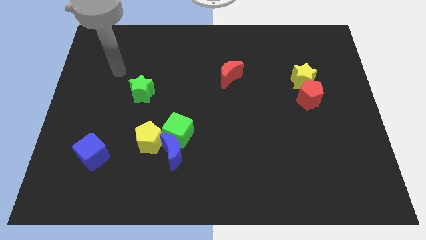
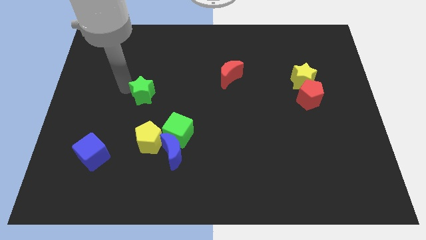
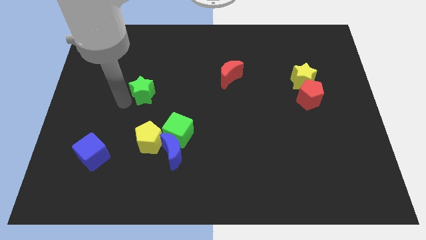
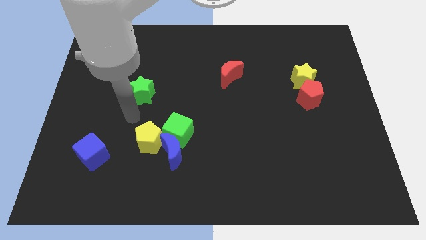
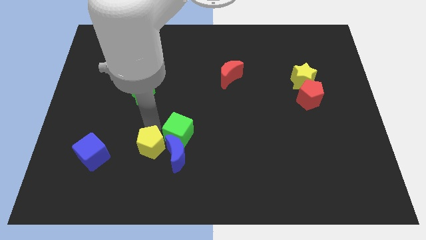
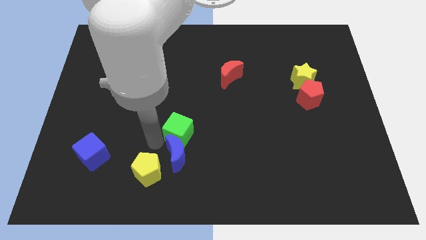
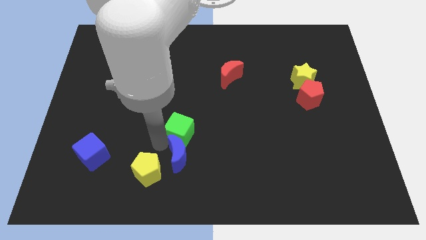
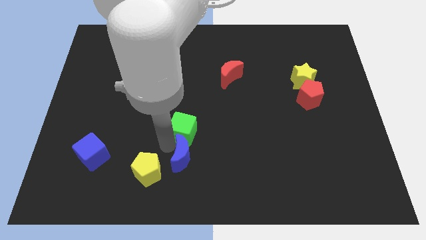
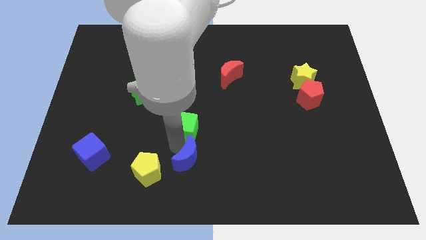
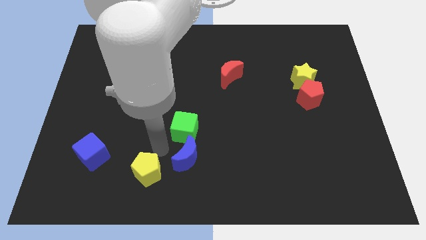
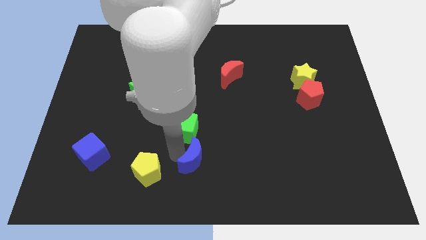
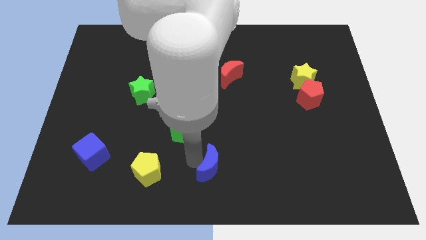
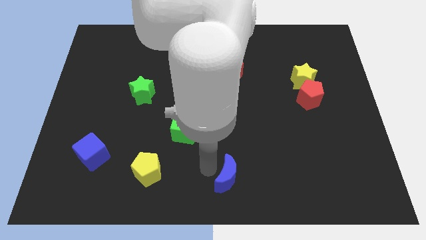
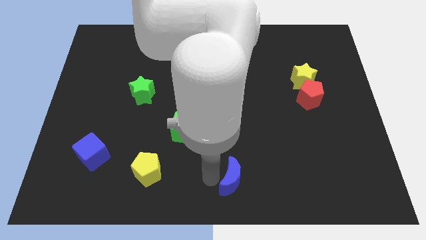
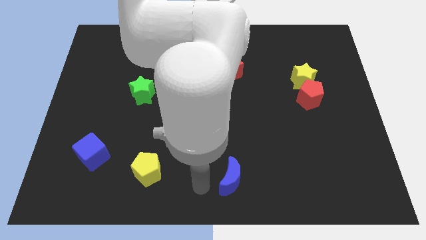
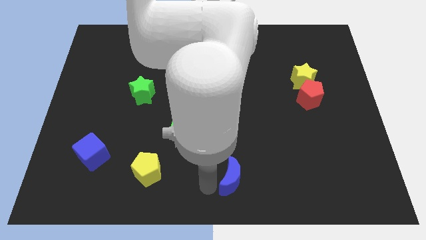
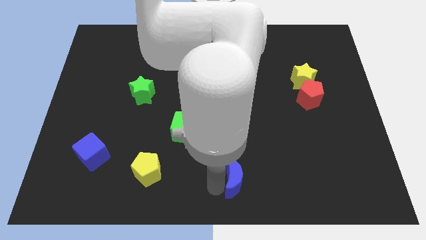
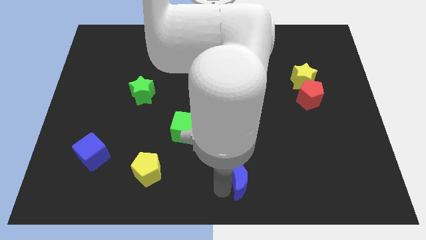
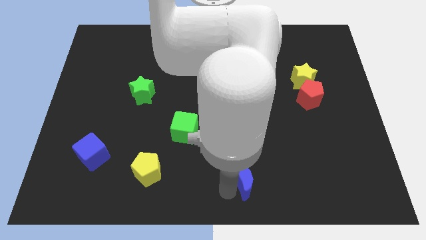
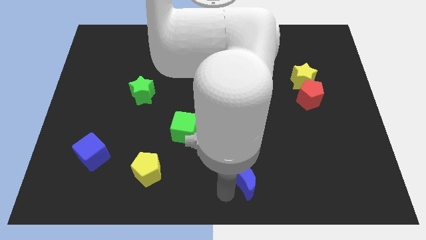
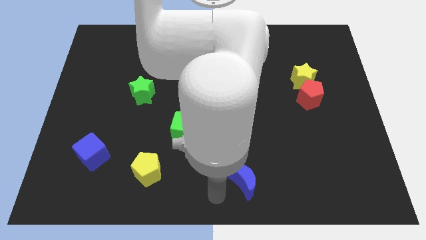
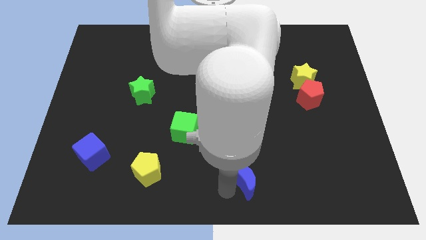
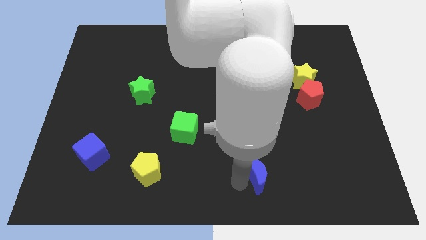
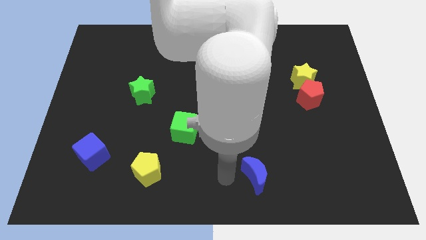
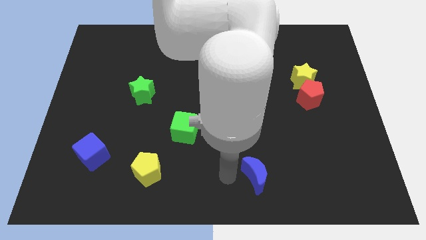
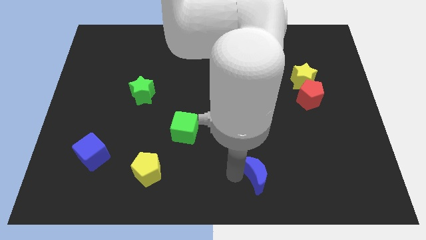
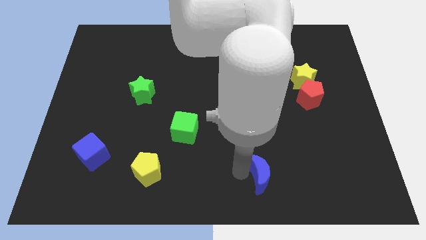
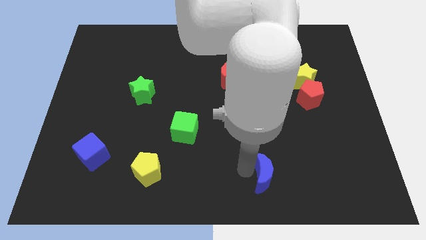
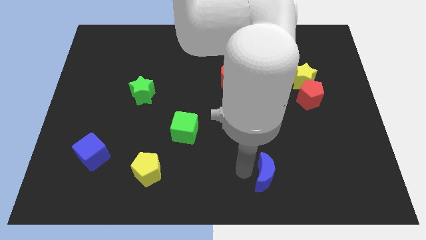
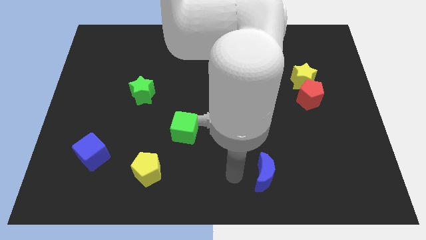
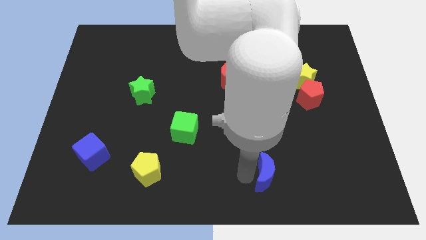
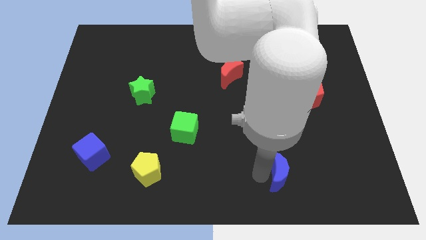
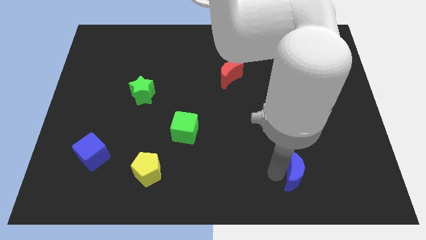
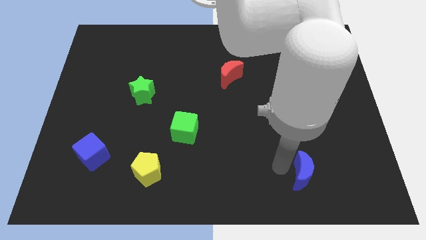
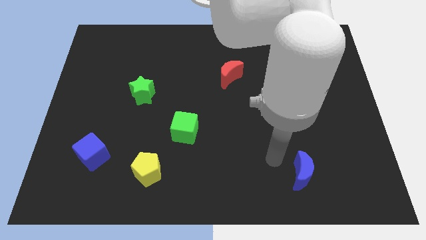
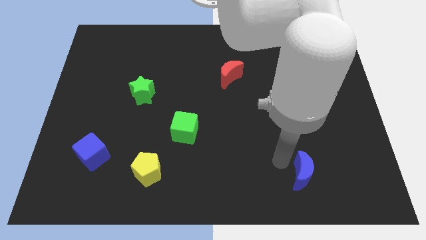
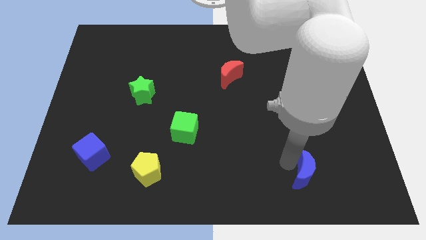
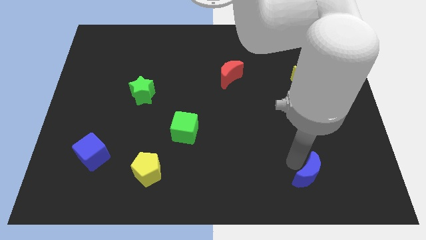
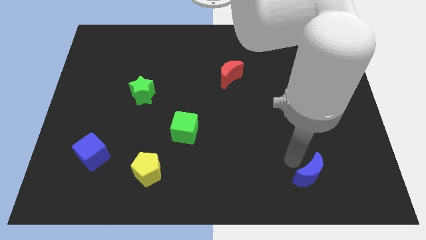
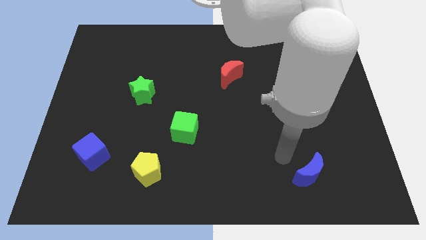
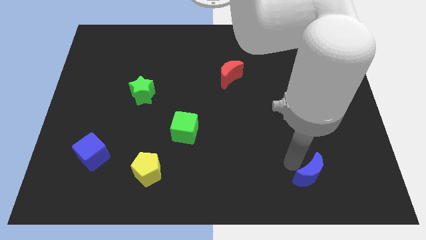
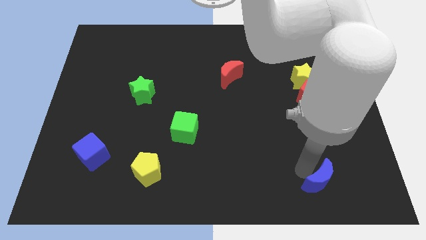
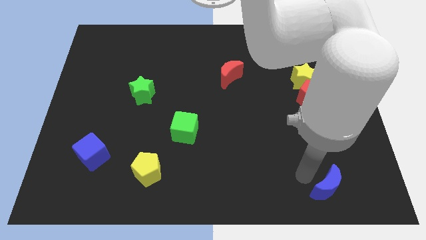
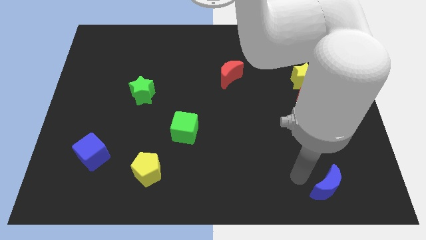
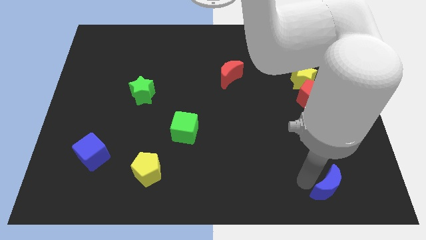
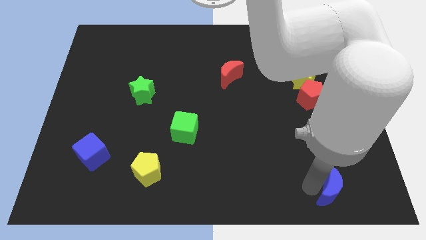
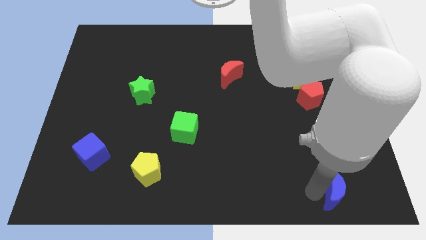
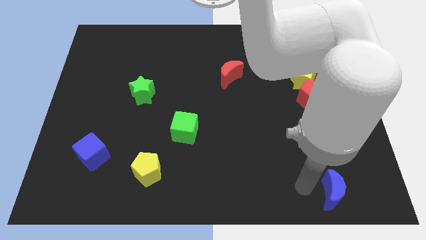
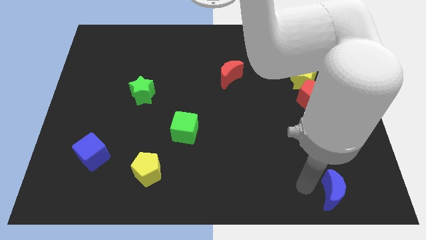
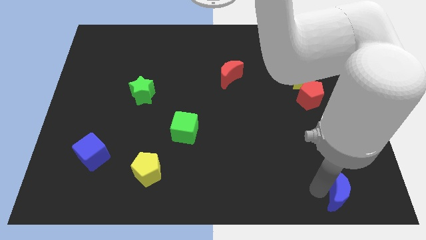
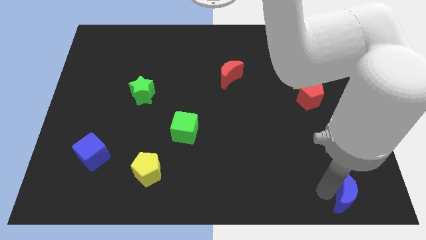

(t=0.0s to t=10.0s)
put the blue moon to the bottom right of the board

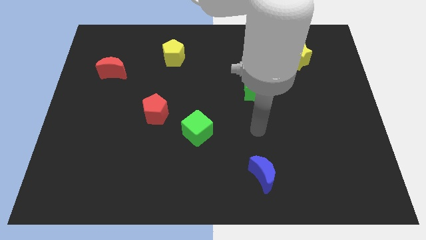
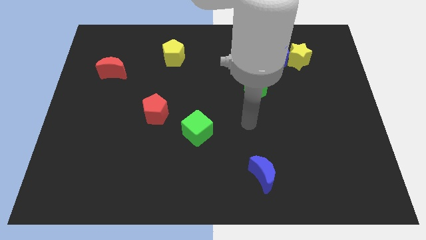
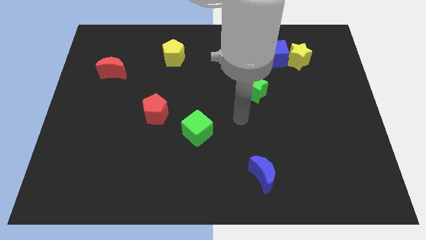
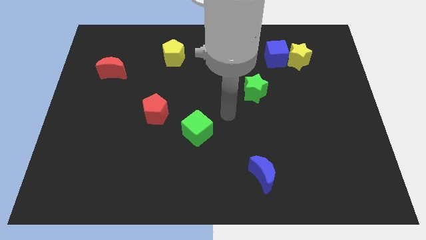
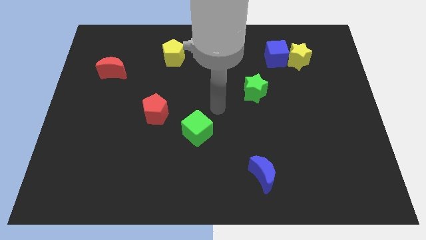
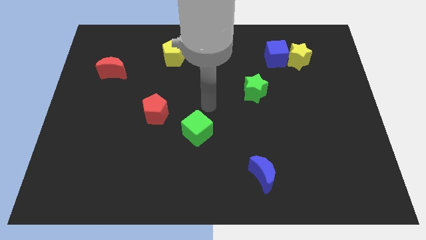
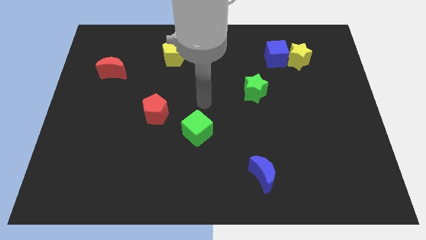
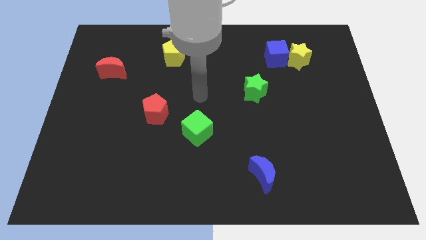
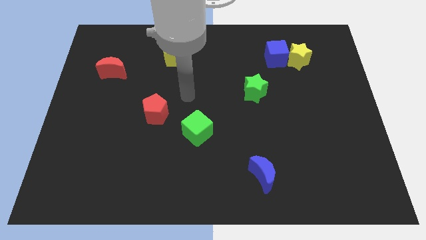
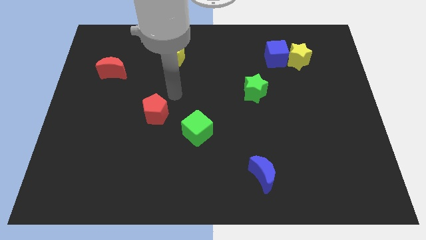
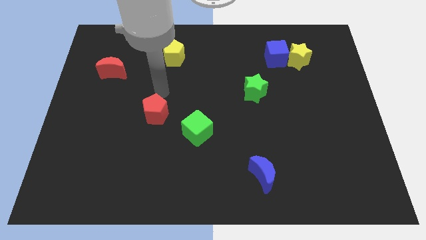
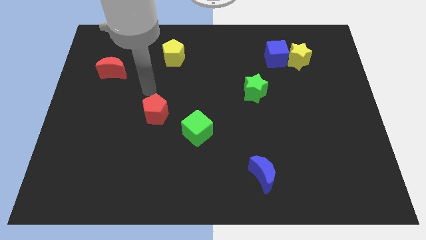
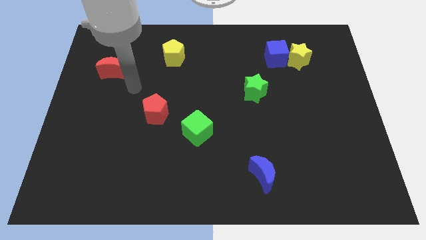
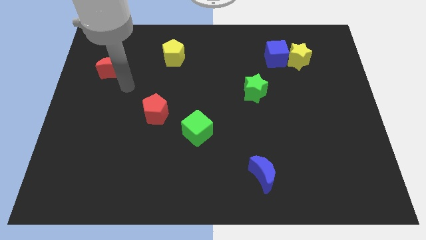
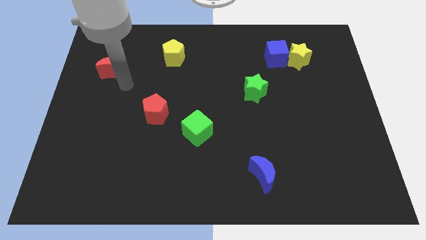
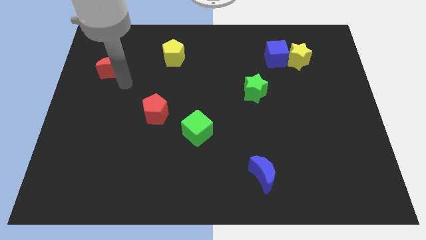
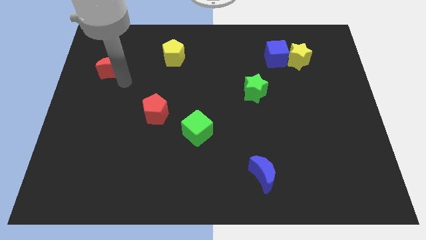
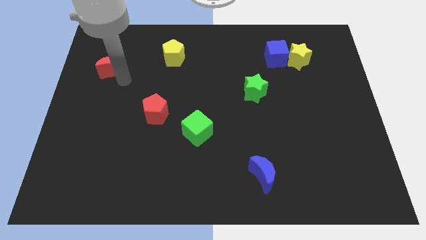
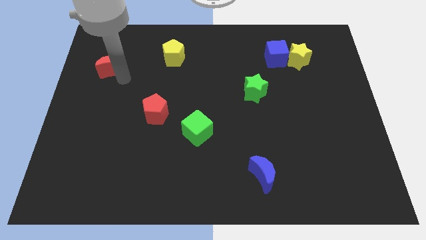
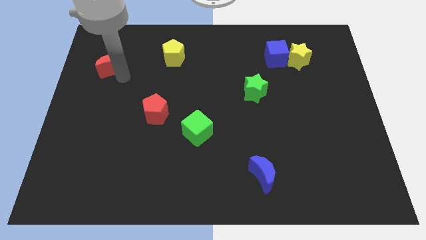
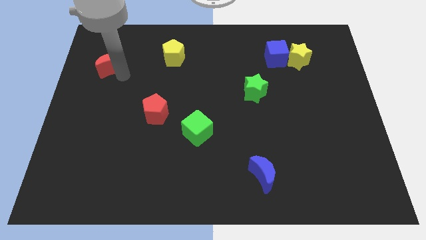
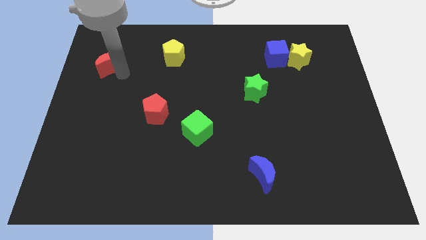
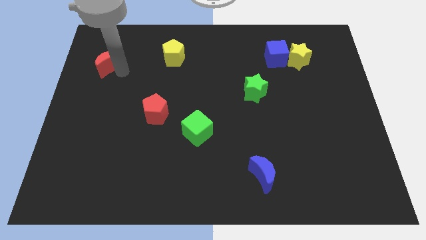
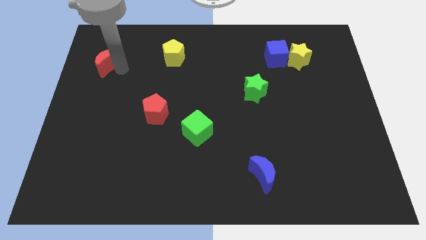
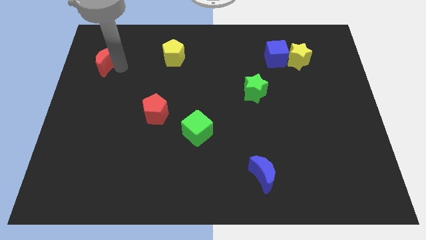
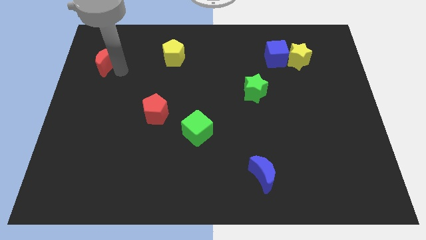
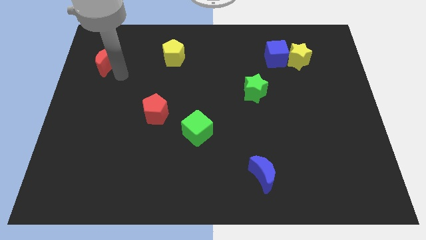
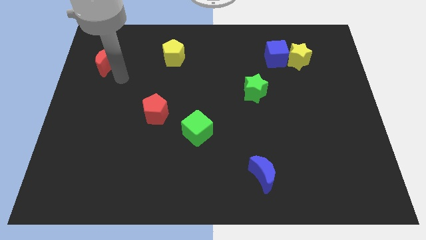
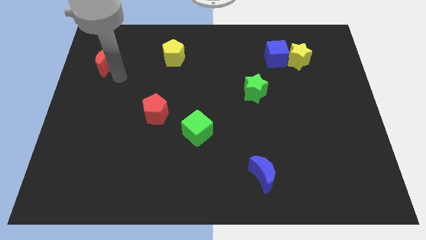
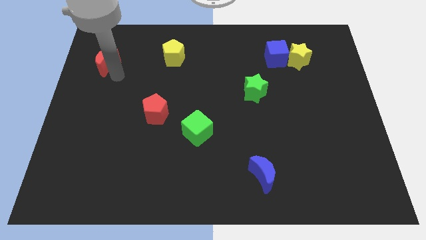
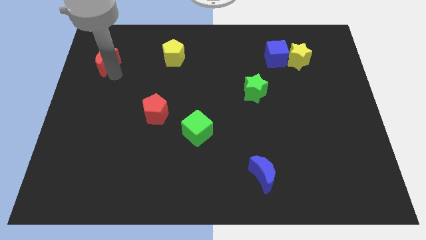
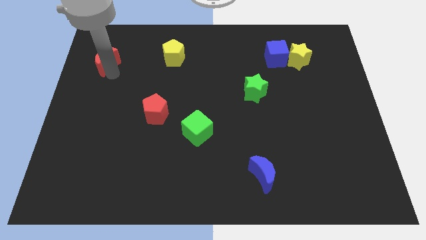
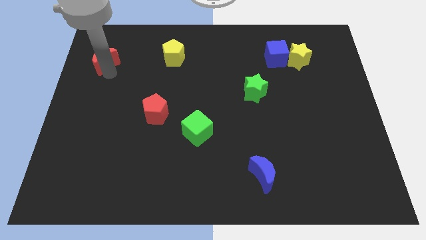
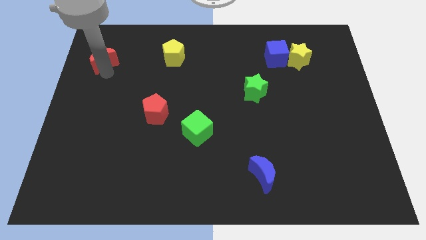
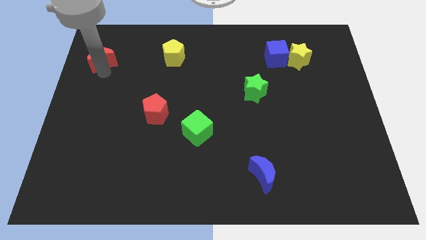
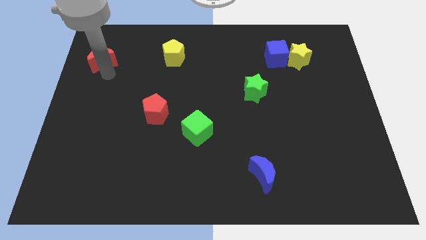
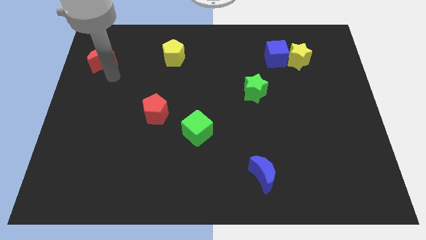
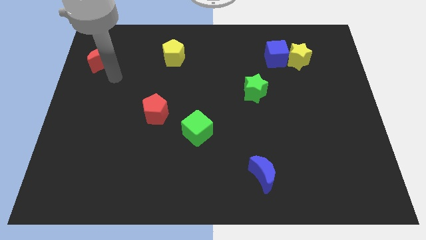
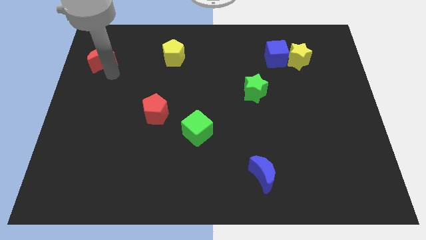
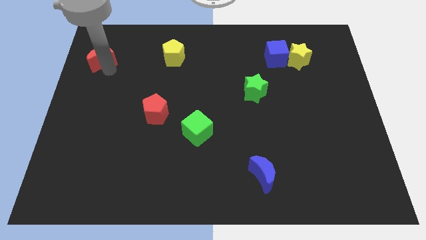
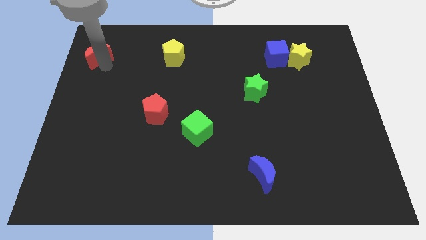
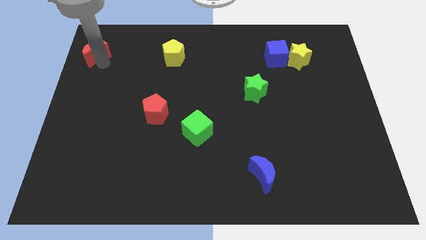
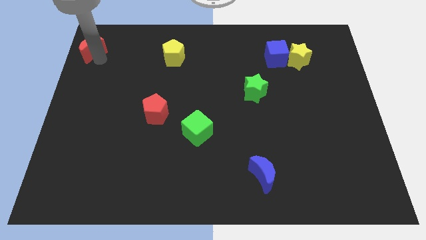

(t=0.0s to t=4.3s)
move the red moon to the top left
